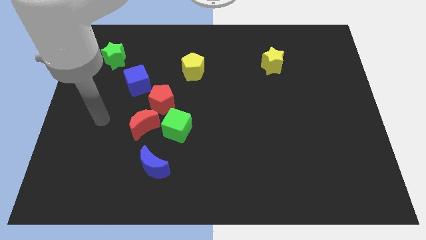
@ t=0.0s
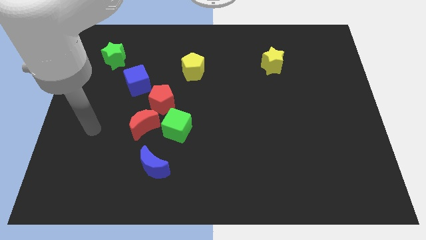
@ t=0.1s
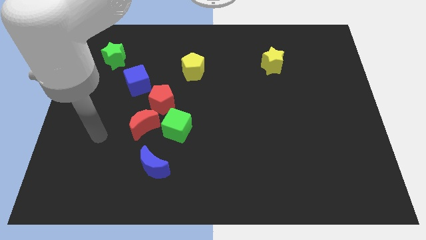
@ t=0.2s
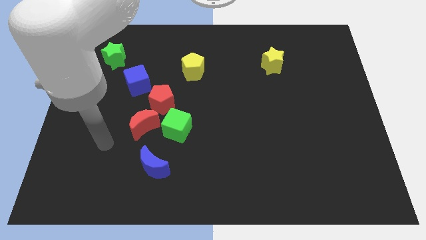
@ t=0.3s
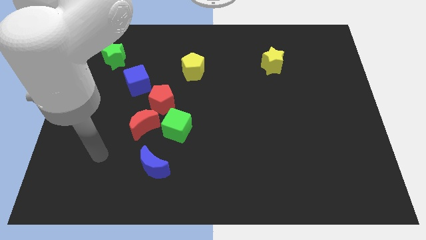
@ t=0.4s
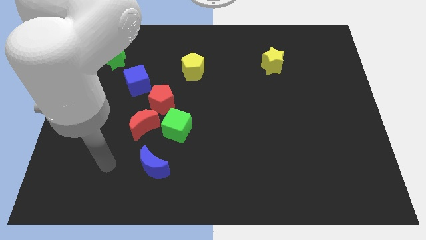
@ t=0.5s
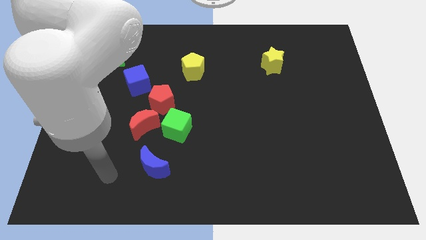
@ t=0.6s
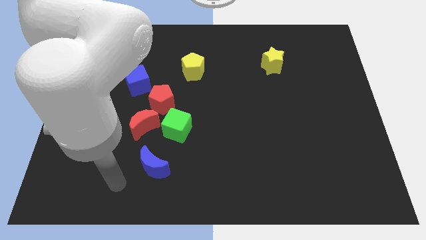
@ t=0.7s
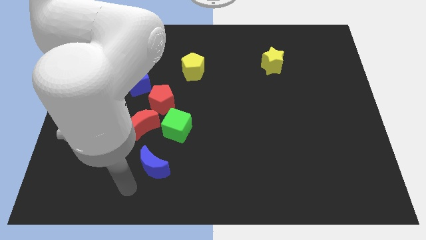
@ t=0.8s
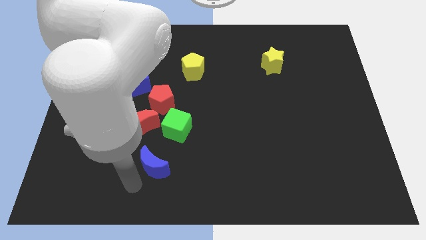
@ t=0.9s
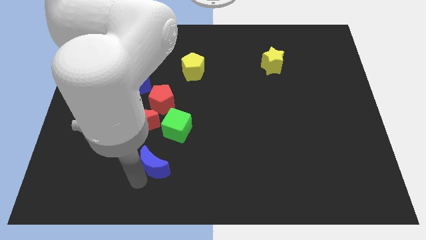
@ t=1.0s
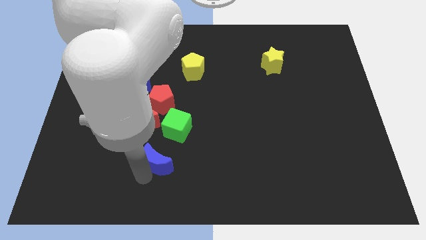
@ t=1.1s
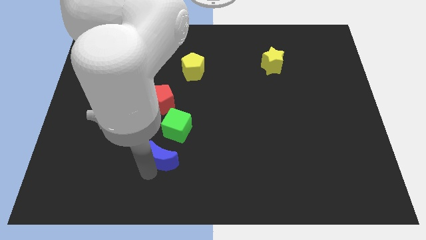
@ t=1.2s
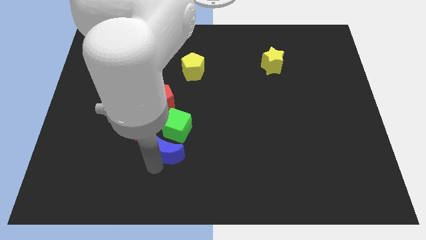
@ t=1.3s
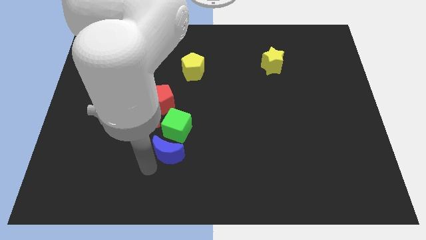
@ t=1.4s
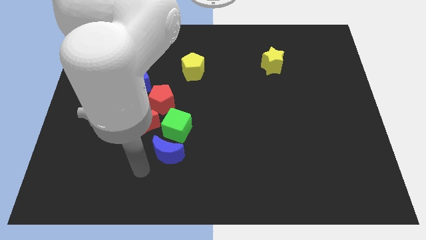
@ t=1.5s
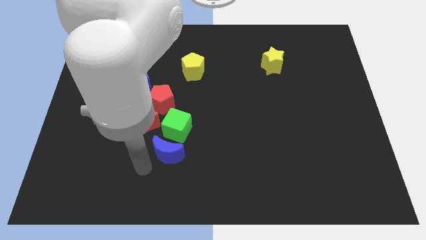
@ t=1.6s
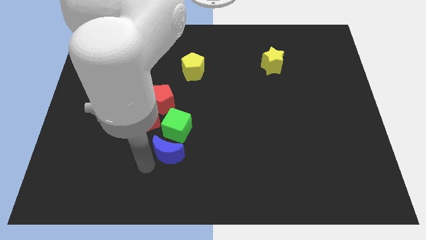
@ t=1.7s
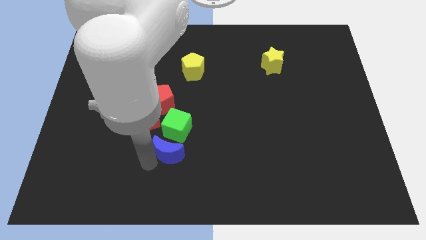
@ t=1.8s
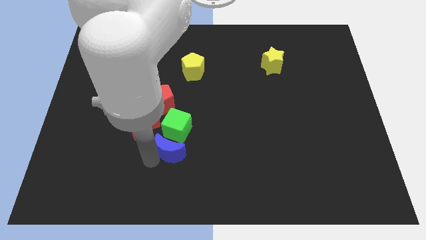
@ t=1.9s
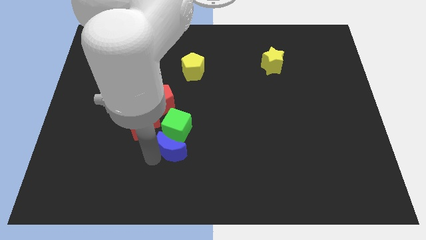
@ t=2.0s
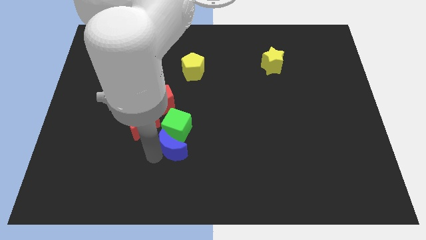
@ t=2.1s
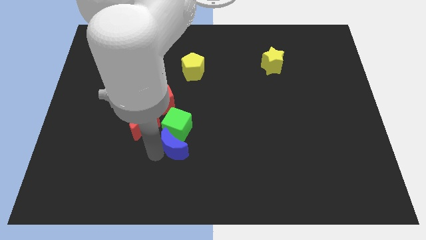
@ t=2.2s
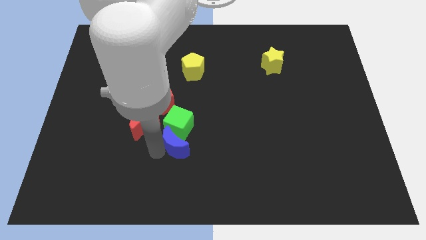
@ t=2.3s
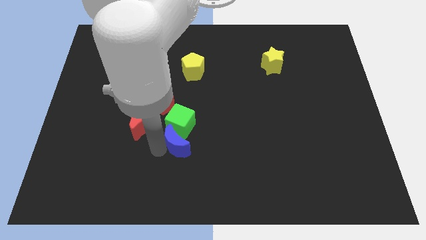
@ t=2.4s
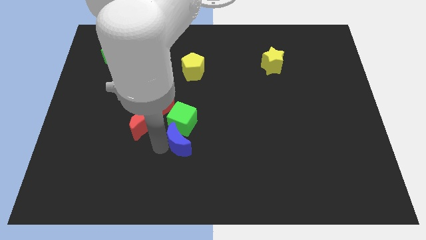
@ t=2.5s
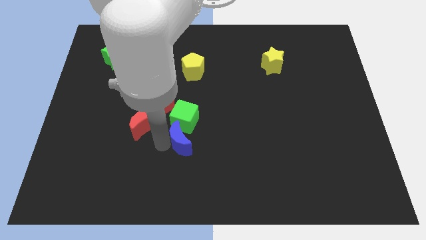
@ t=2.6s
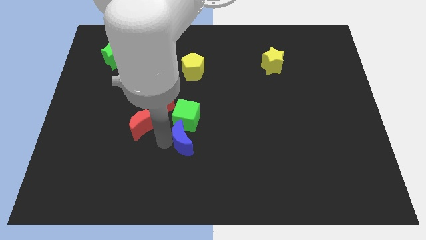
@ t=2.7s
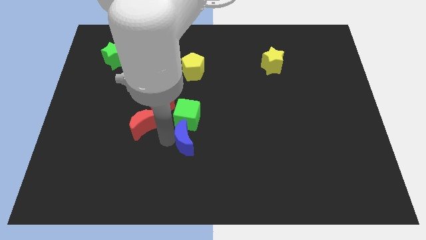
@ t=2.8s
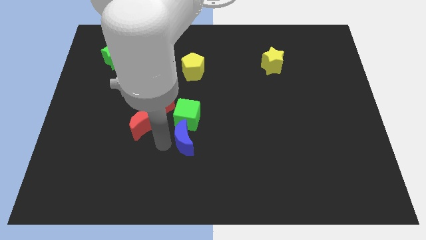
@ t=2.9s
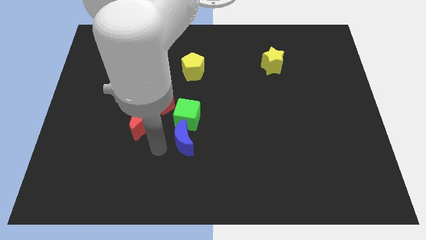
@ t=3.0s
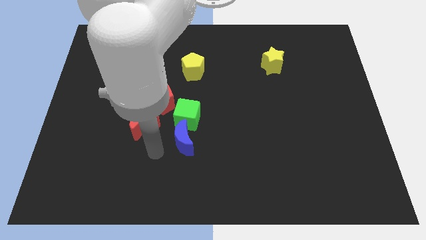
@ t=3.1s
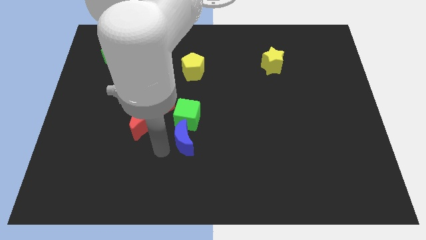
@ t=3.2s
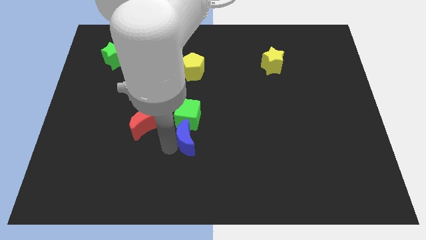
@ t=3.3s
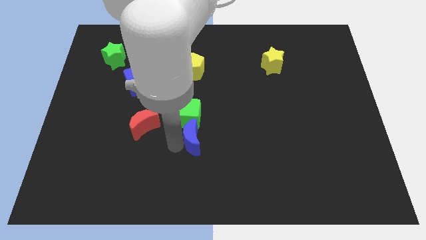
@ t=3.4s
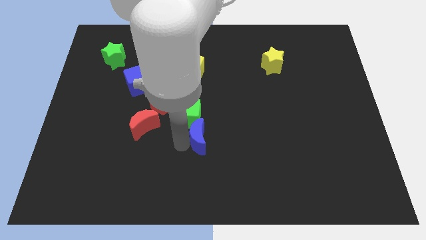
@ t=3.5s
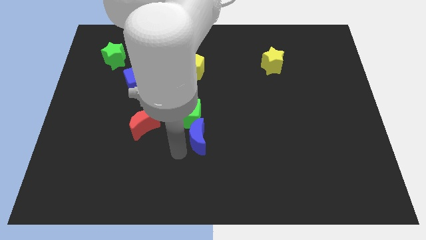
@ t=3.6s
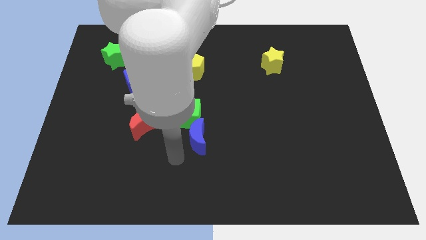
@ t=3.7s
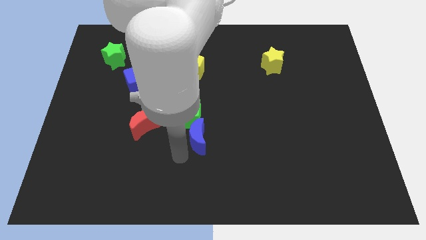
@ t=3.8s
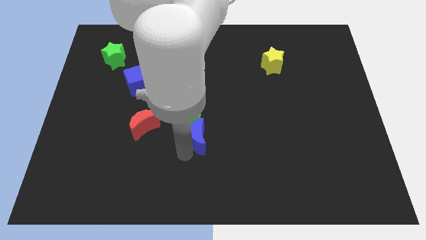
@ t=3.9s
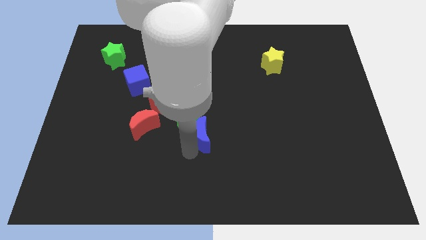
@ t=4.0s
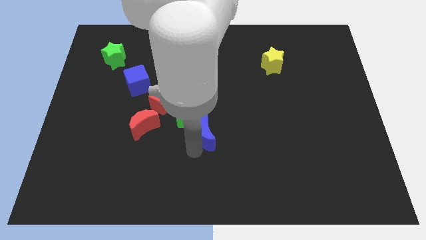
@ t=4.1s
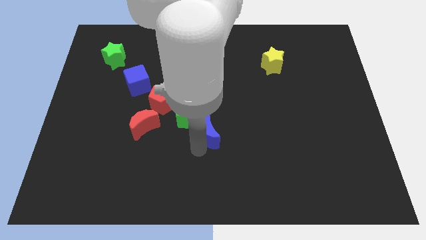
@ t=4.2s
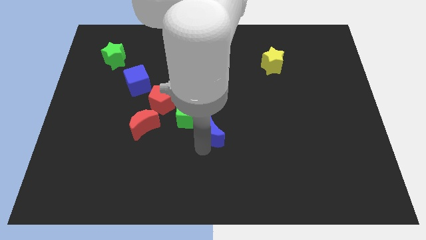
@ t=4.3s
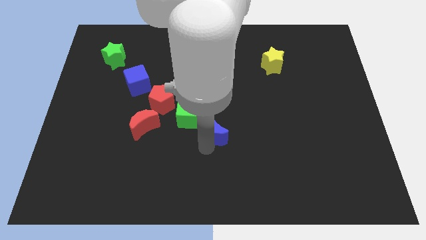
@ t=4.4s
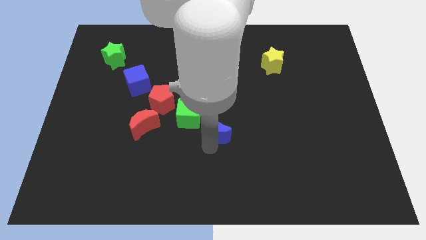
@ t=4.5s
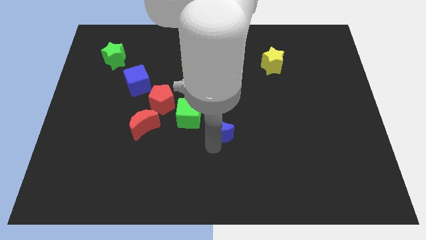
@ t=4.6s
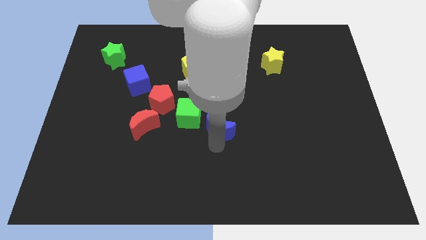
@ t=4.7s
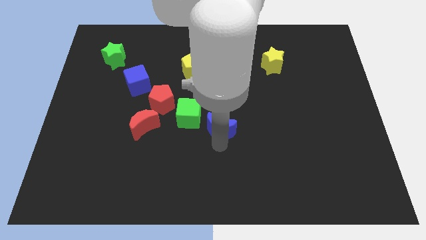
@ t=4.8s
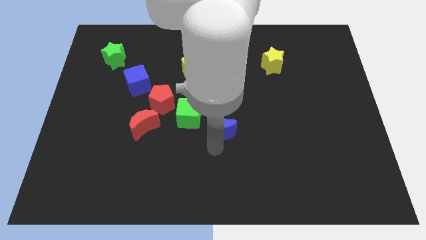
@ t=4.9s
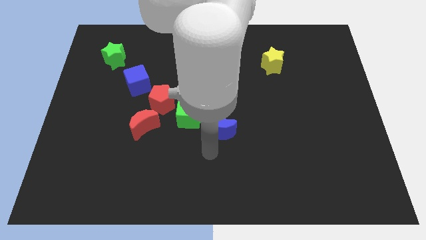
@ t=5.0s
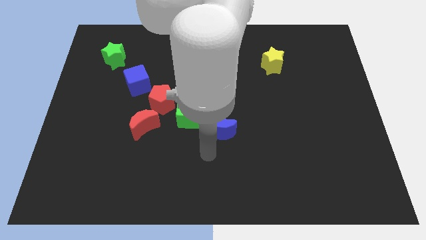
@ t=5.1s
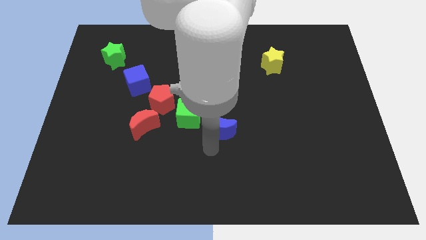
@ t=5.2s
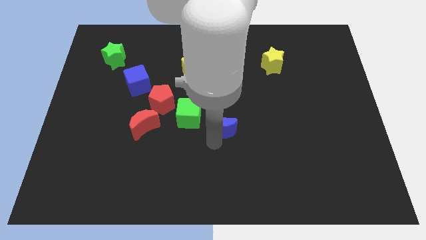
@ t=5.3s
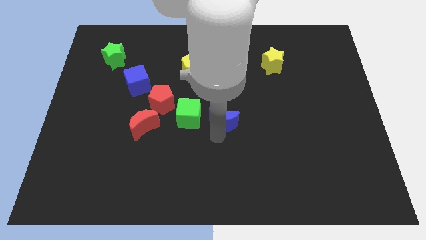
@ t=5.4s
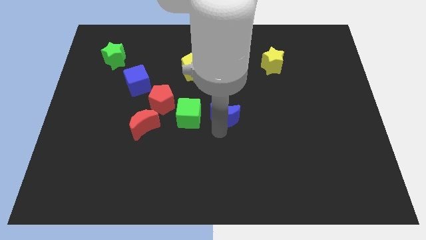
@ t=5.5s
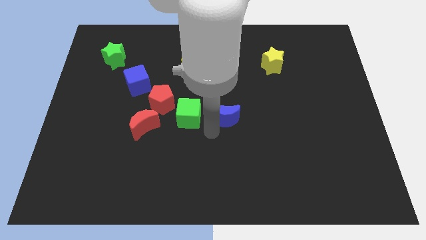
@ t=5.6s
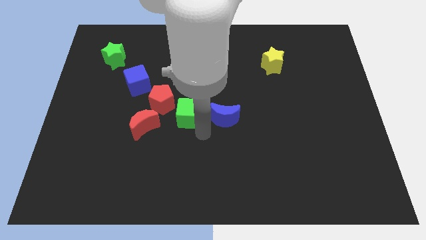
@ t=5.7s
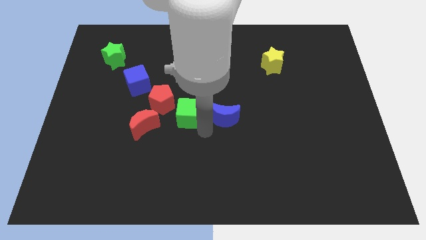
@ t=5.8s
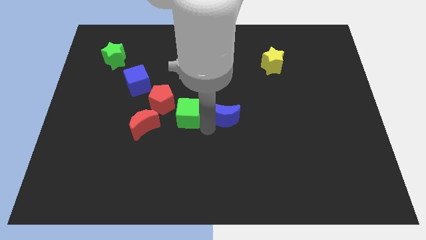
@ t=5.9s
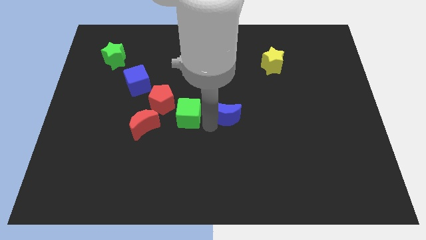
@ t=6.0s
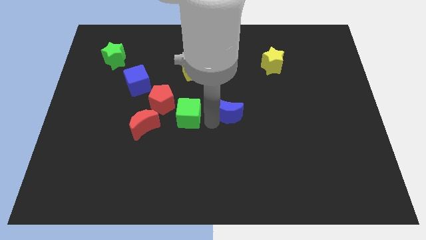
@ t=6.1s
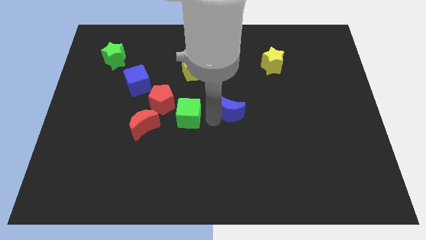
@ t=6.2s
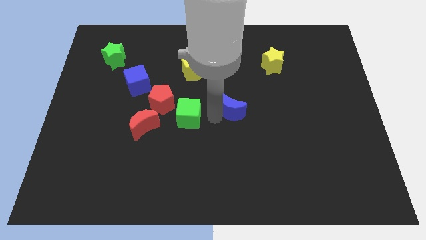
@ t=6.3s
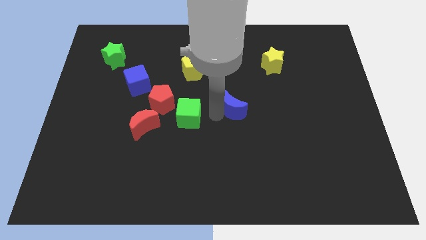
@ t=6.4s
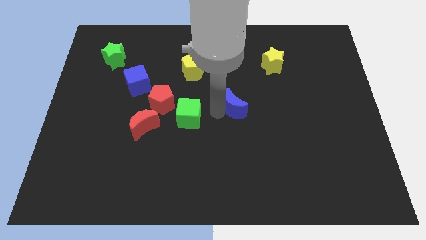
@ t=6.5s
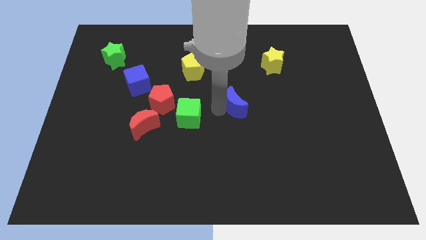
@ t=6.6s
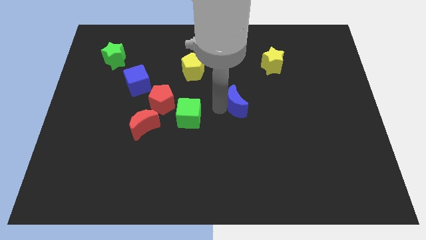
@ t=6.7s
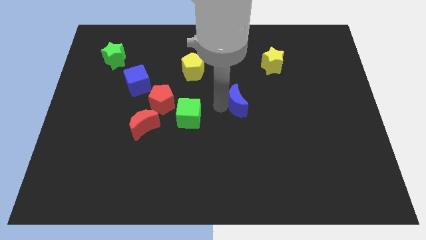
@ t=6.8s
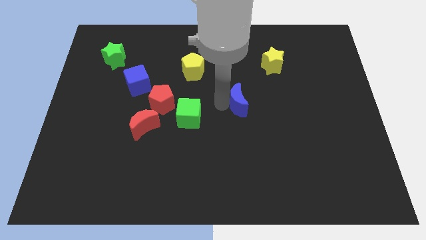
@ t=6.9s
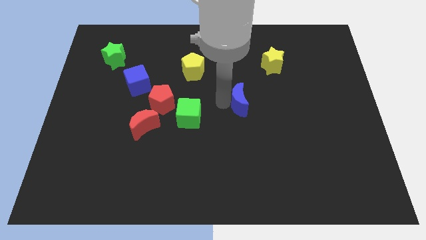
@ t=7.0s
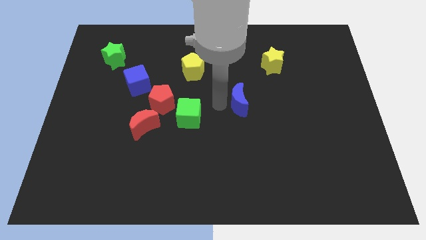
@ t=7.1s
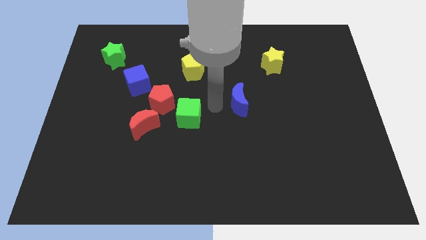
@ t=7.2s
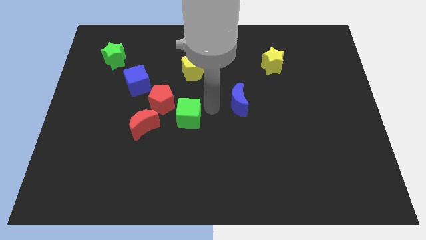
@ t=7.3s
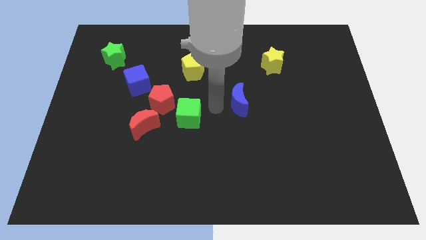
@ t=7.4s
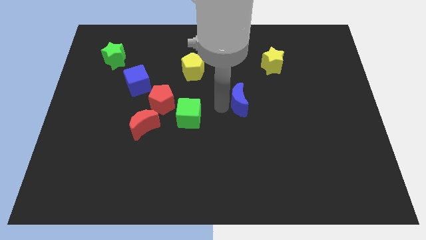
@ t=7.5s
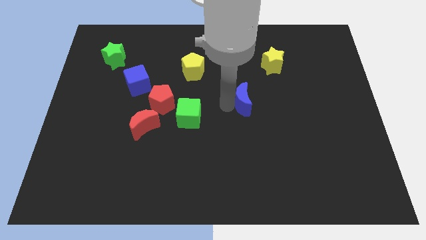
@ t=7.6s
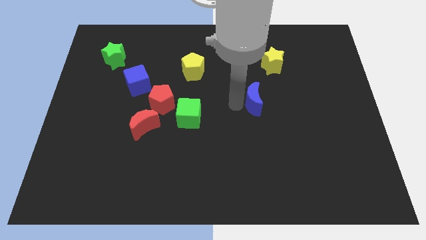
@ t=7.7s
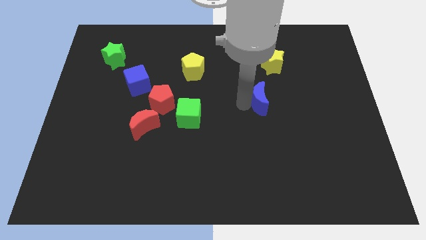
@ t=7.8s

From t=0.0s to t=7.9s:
push the blue moon to the bottom of the yellow star
